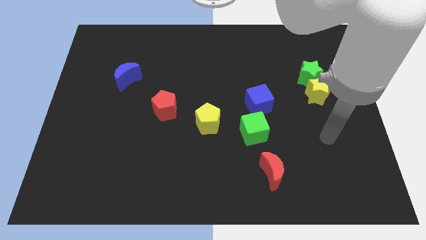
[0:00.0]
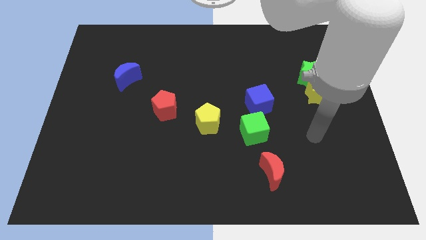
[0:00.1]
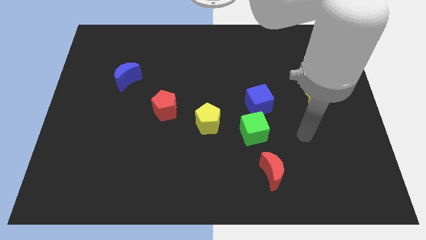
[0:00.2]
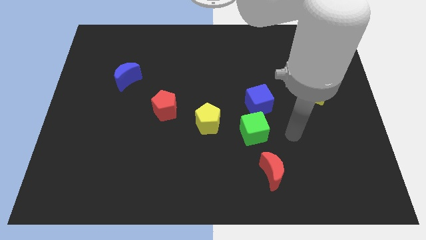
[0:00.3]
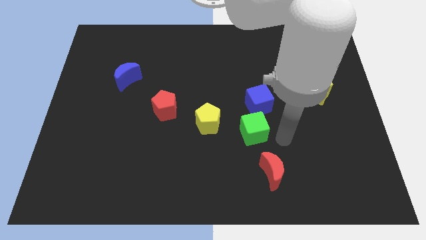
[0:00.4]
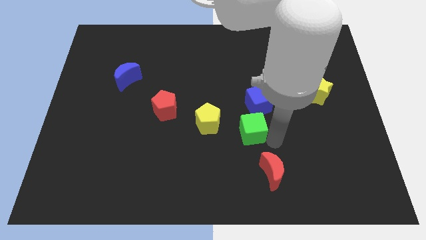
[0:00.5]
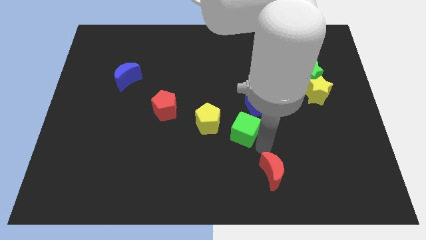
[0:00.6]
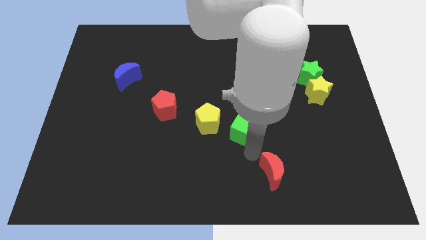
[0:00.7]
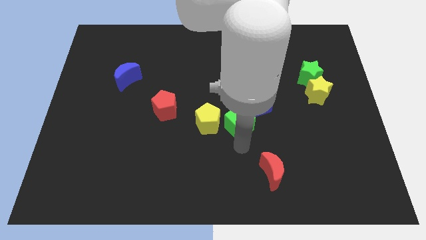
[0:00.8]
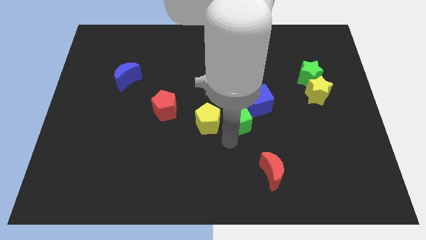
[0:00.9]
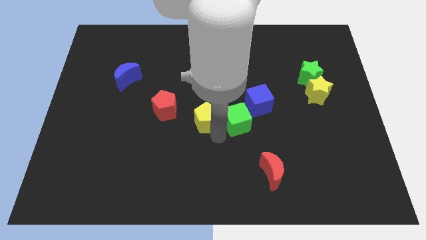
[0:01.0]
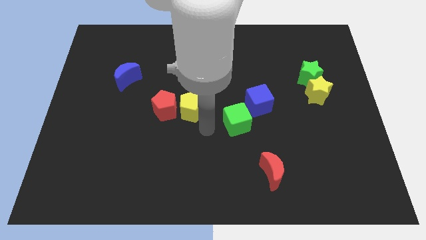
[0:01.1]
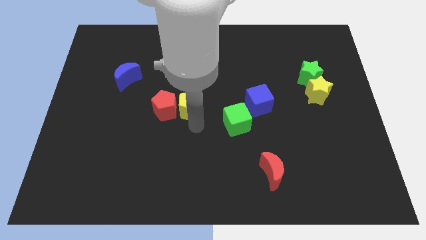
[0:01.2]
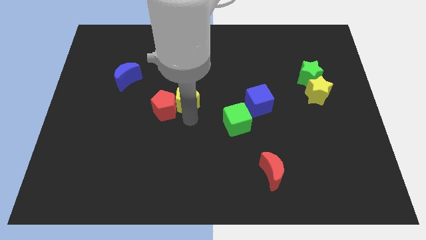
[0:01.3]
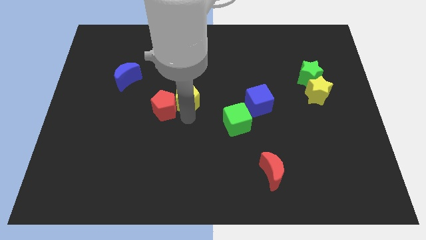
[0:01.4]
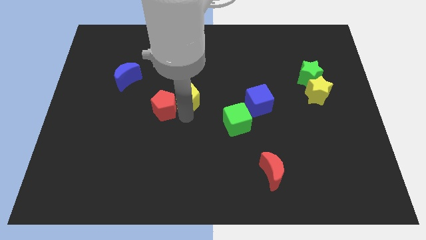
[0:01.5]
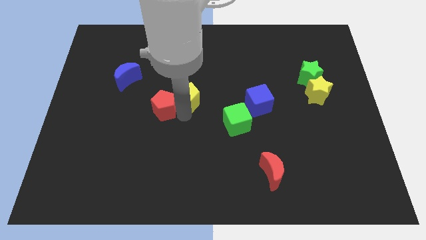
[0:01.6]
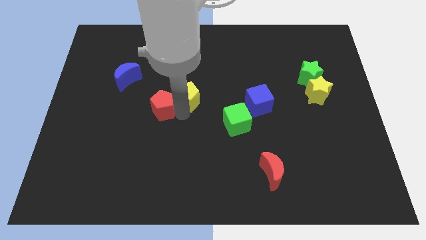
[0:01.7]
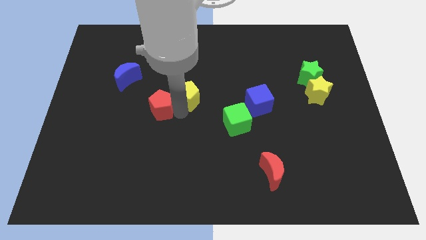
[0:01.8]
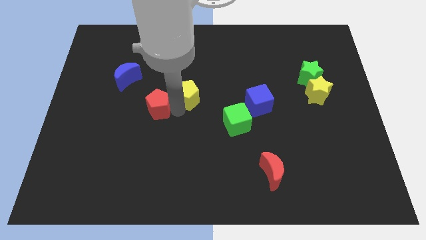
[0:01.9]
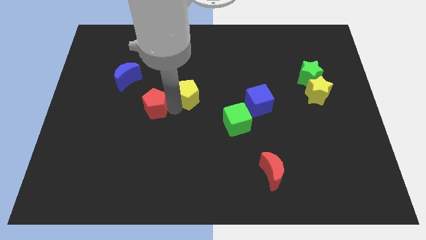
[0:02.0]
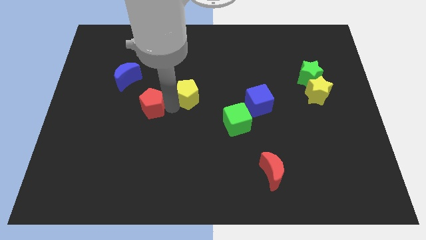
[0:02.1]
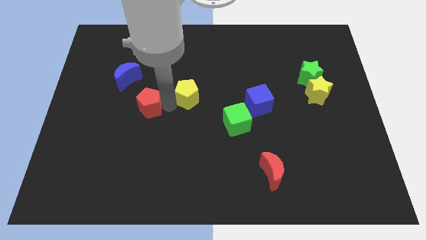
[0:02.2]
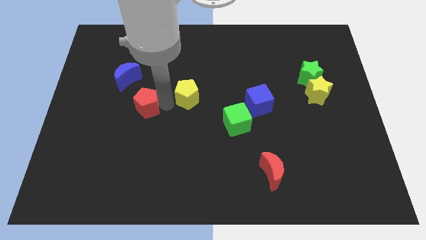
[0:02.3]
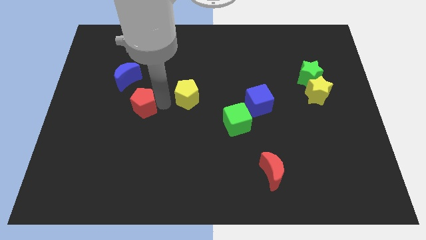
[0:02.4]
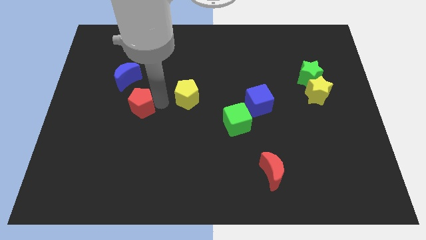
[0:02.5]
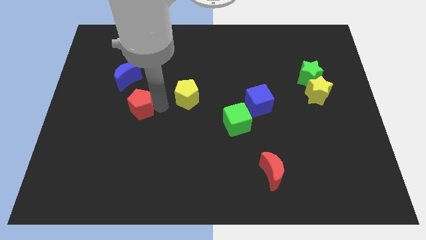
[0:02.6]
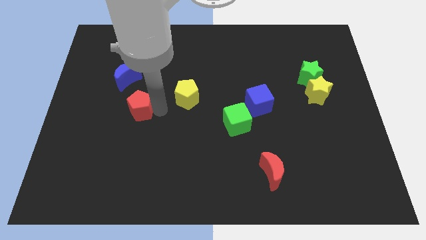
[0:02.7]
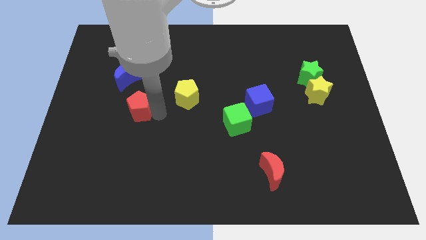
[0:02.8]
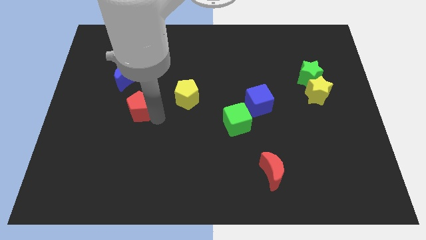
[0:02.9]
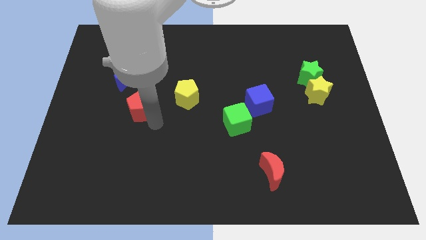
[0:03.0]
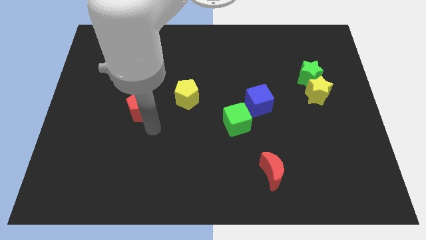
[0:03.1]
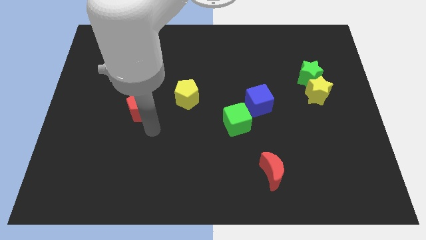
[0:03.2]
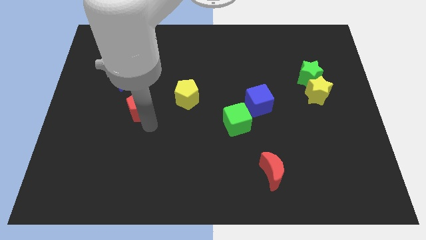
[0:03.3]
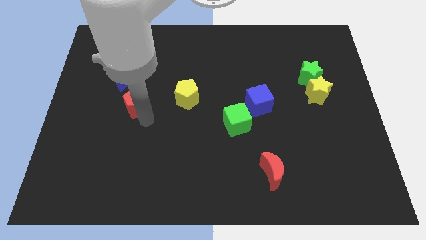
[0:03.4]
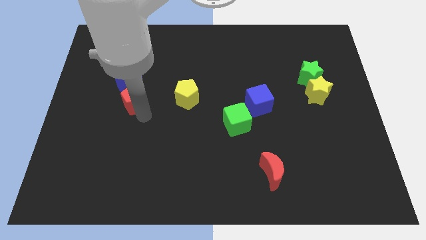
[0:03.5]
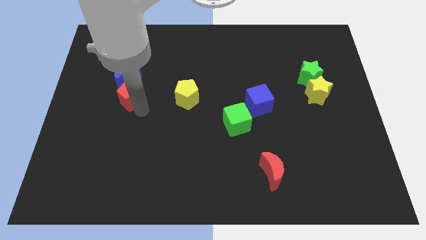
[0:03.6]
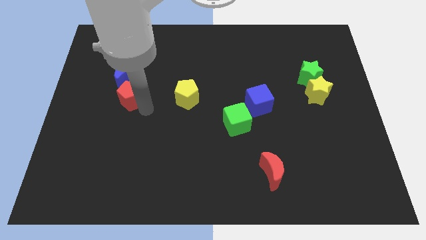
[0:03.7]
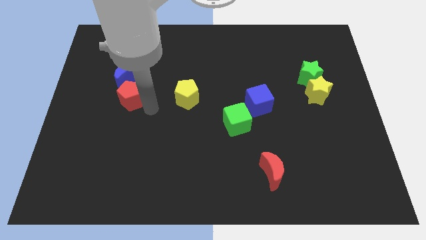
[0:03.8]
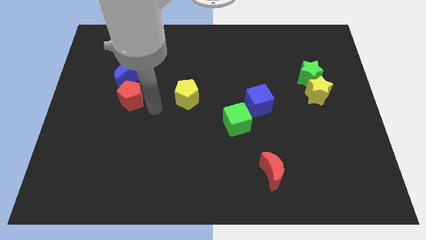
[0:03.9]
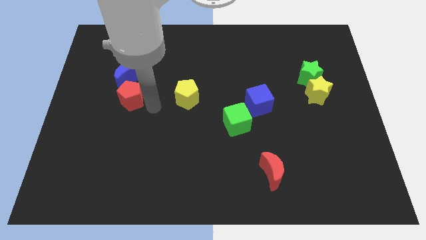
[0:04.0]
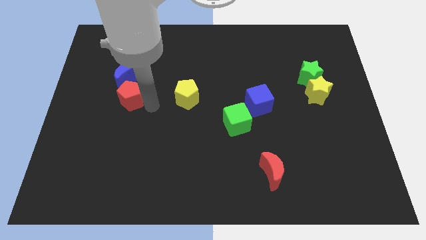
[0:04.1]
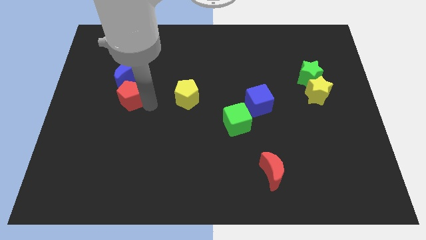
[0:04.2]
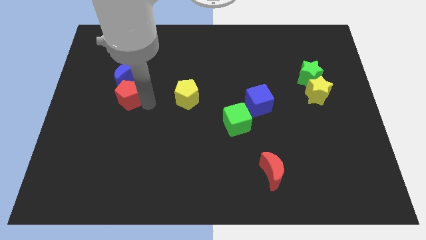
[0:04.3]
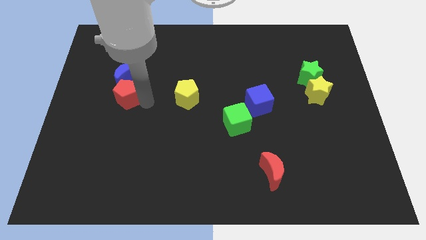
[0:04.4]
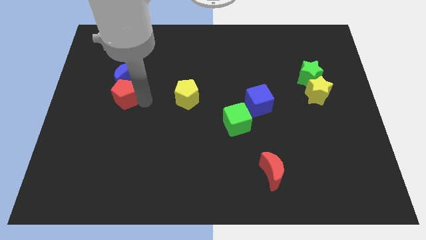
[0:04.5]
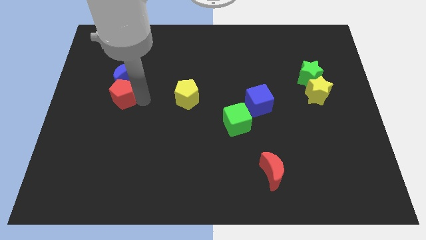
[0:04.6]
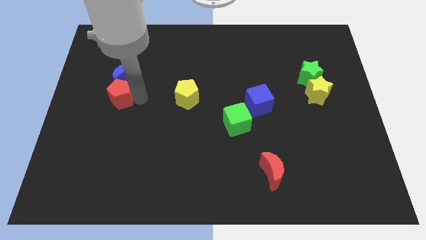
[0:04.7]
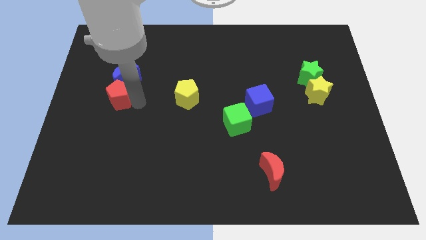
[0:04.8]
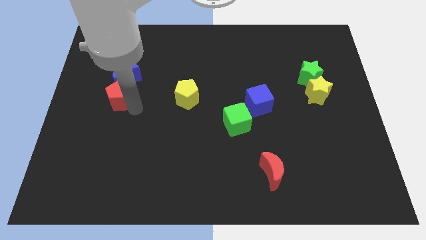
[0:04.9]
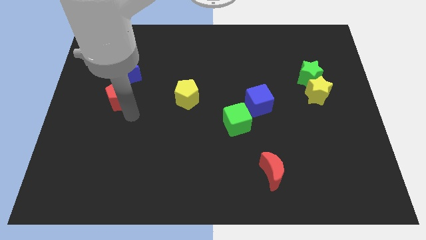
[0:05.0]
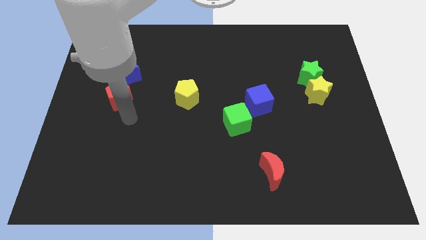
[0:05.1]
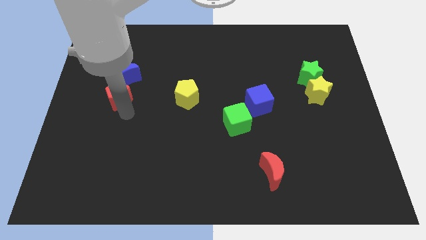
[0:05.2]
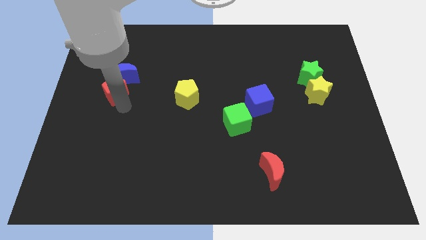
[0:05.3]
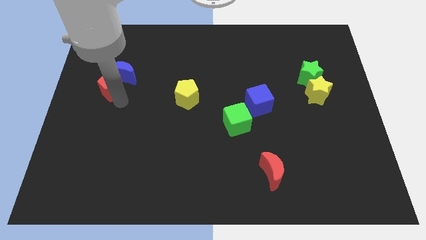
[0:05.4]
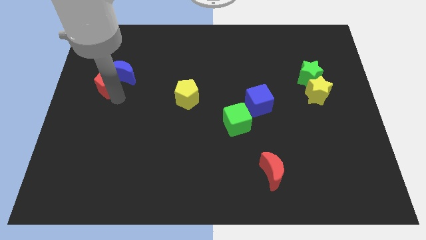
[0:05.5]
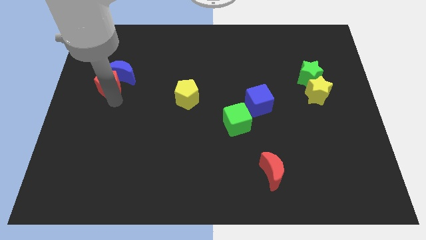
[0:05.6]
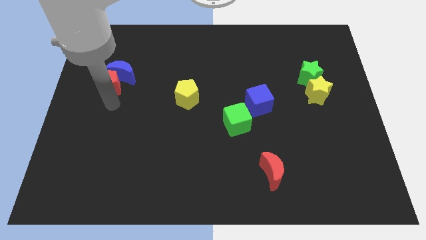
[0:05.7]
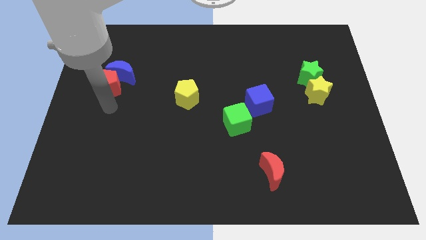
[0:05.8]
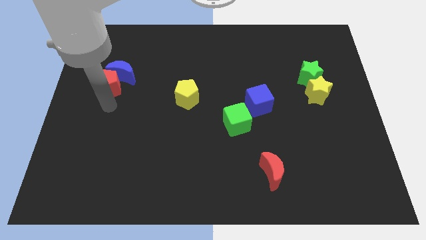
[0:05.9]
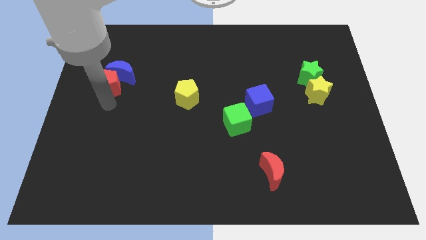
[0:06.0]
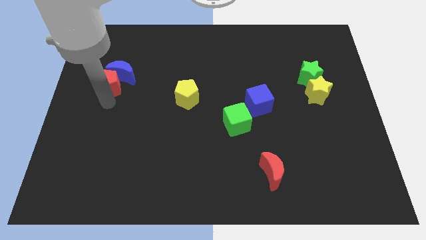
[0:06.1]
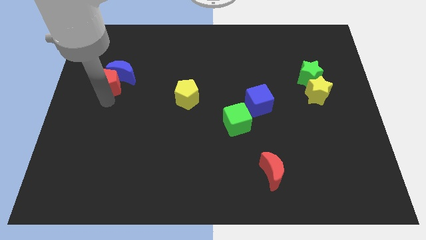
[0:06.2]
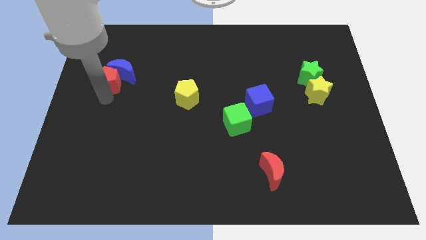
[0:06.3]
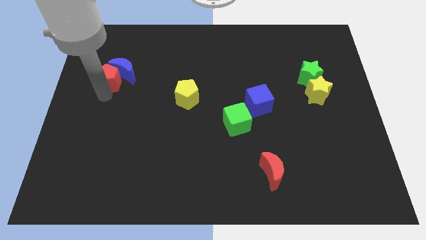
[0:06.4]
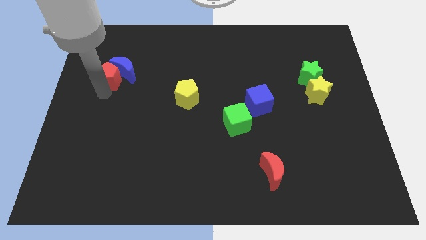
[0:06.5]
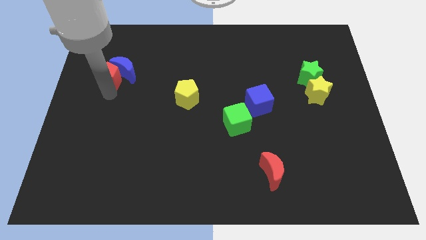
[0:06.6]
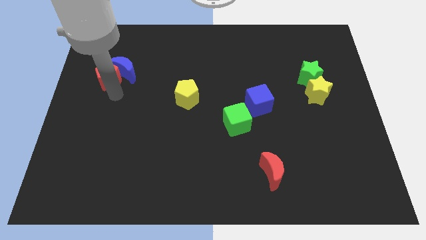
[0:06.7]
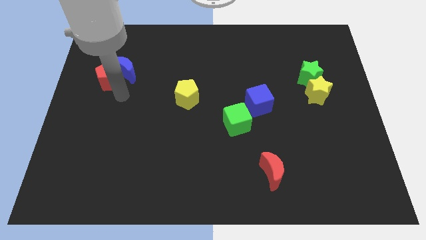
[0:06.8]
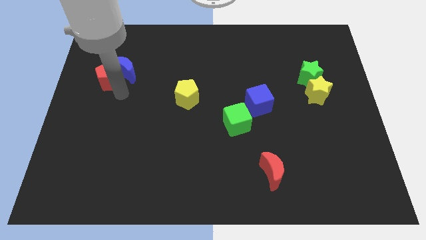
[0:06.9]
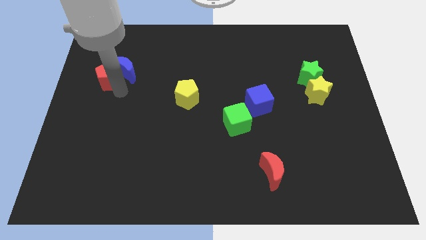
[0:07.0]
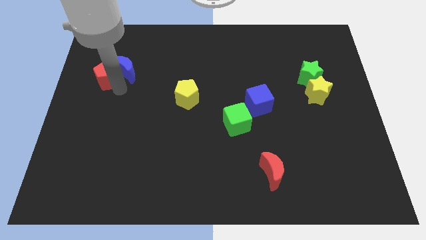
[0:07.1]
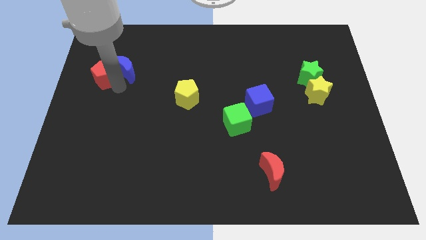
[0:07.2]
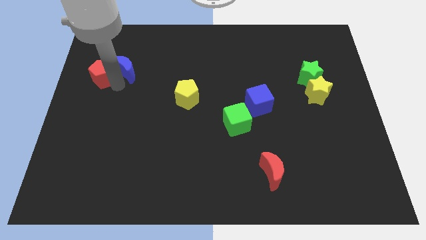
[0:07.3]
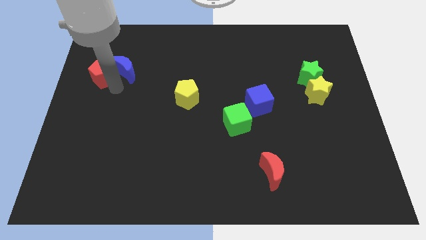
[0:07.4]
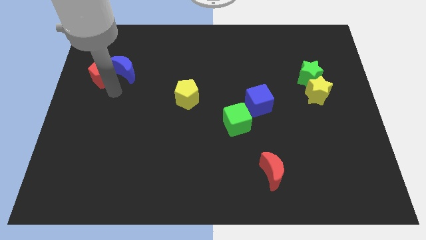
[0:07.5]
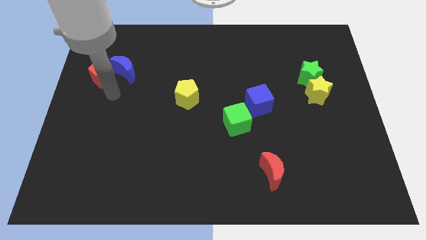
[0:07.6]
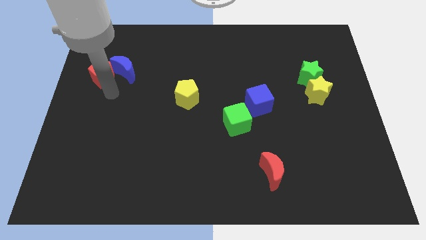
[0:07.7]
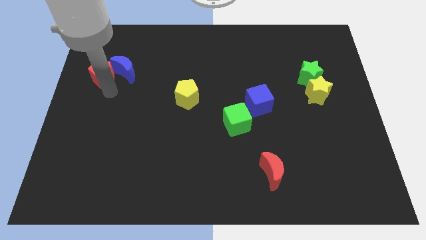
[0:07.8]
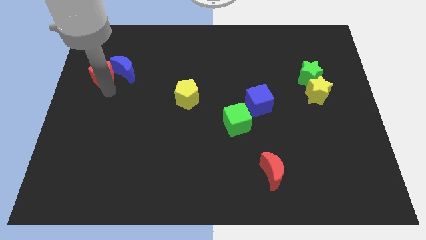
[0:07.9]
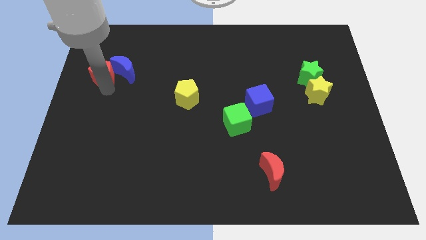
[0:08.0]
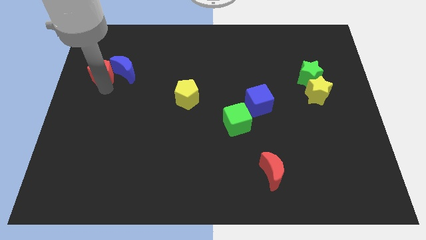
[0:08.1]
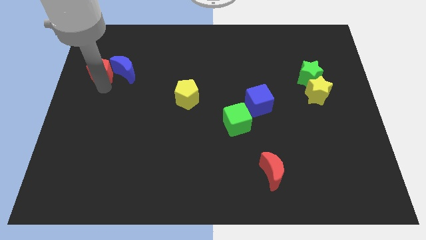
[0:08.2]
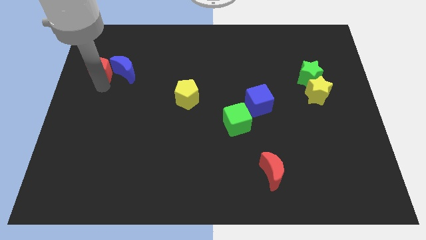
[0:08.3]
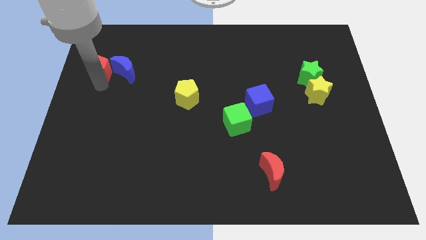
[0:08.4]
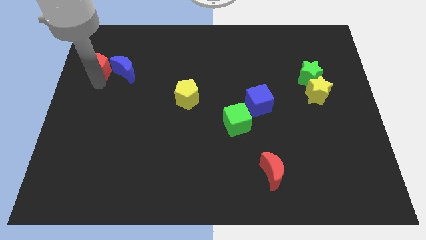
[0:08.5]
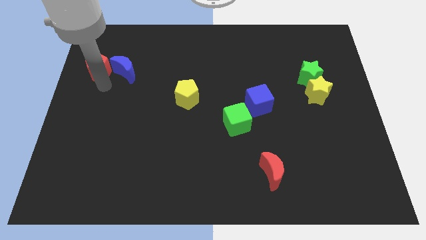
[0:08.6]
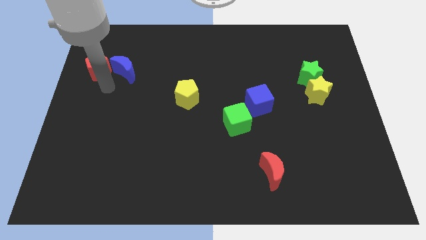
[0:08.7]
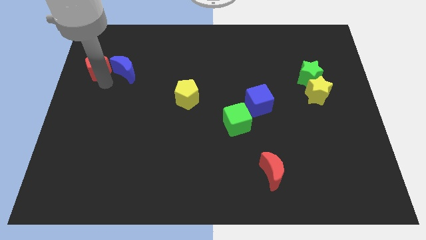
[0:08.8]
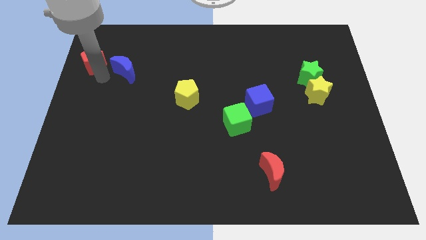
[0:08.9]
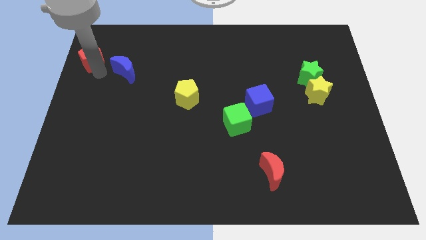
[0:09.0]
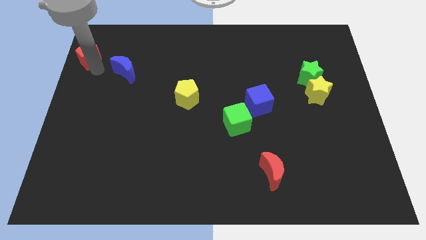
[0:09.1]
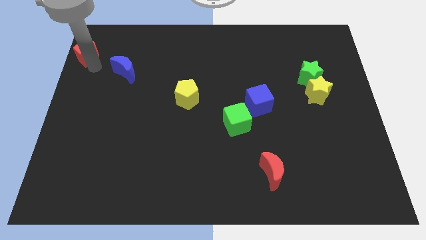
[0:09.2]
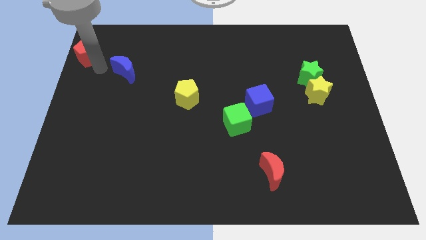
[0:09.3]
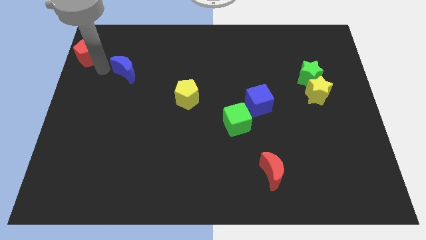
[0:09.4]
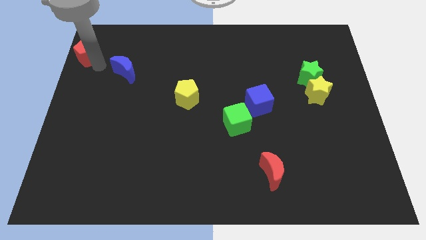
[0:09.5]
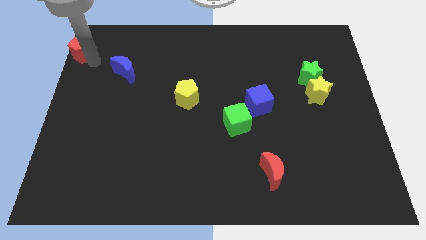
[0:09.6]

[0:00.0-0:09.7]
push the red pentagon to the top left
